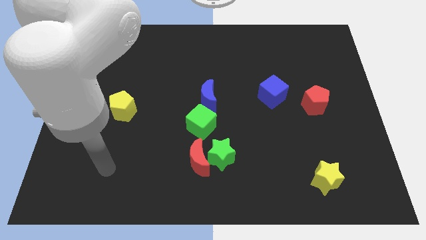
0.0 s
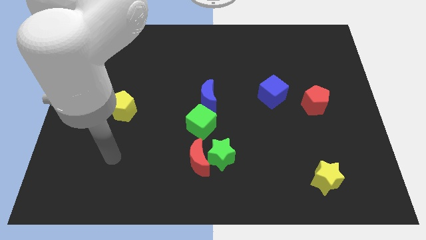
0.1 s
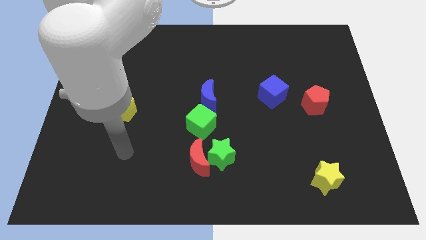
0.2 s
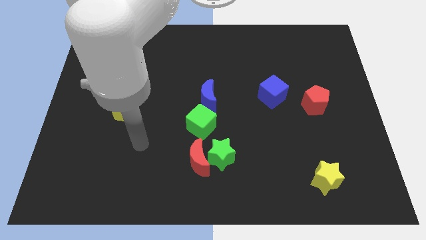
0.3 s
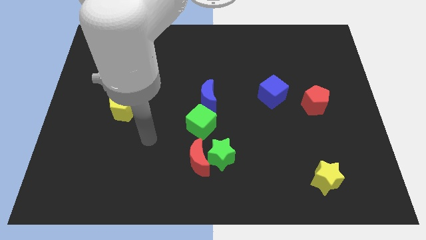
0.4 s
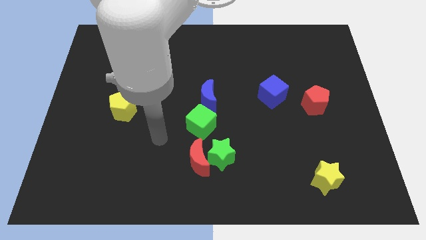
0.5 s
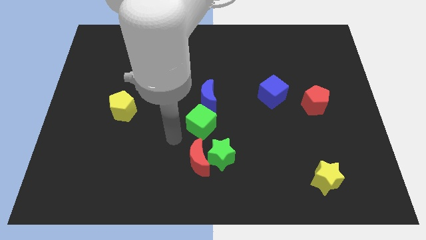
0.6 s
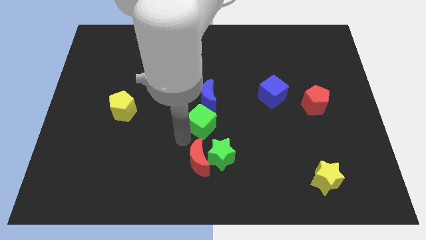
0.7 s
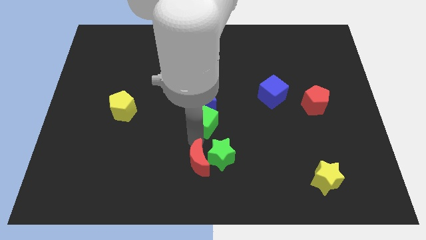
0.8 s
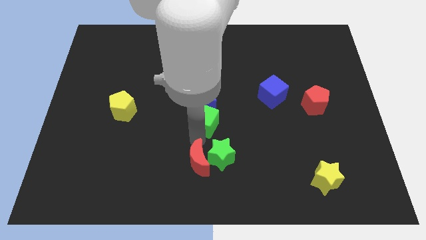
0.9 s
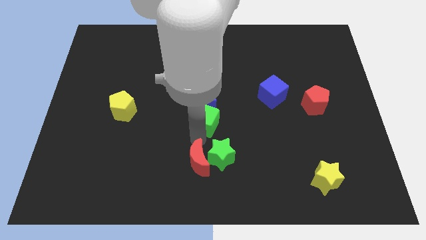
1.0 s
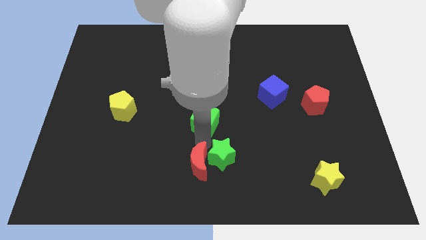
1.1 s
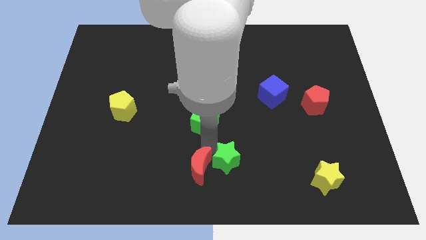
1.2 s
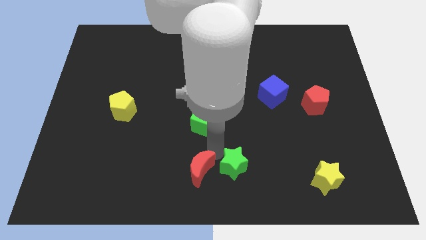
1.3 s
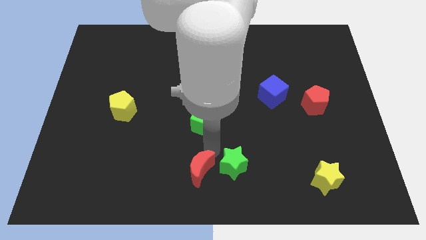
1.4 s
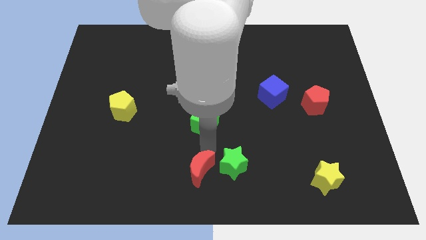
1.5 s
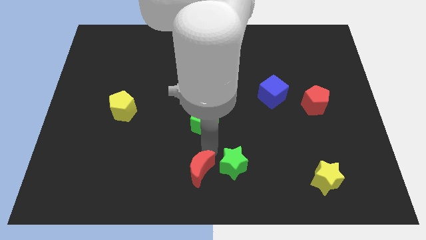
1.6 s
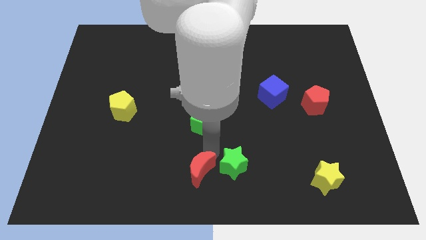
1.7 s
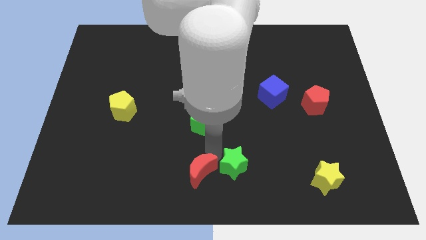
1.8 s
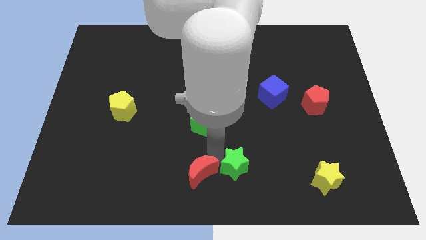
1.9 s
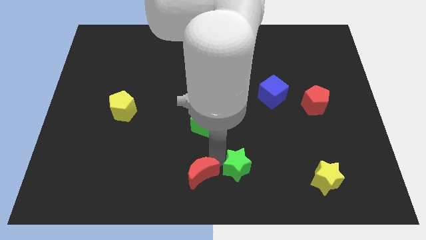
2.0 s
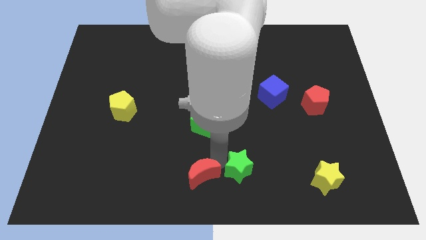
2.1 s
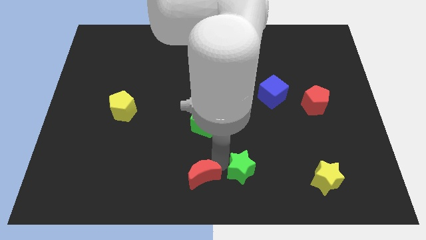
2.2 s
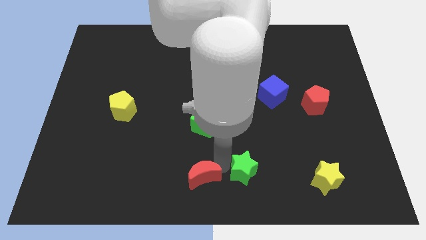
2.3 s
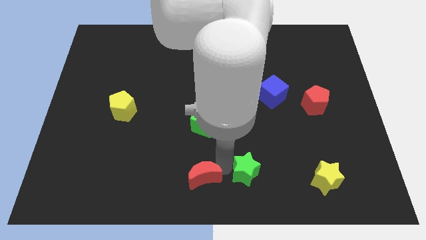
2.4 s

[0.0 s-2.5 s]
move the green star away from the red moon and green cube

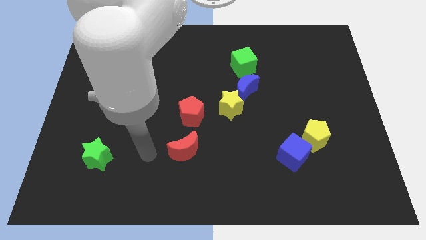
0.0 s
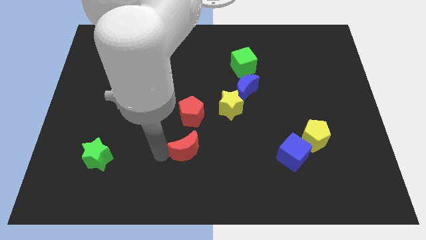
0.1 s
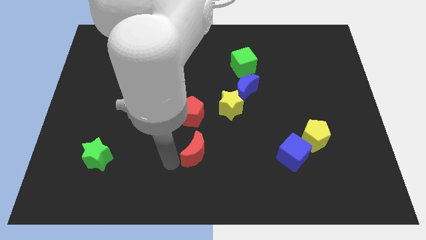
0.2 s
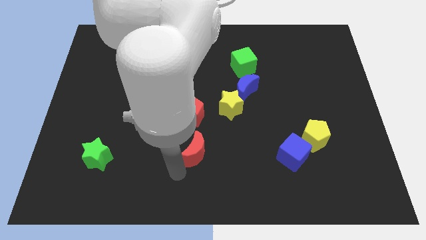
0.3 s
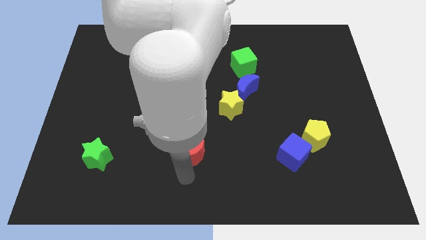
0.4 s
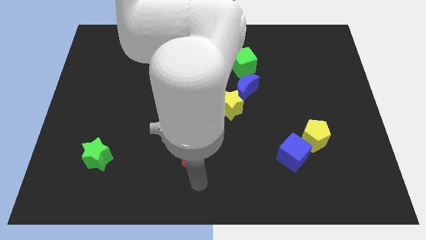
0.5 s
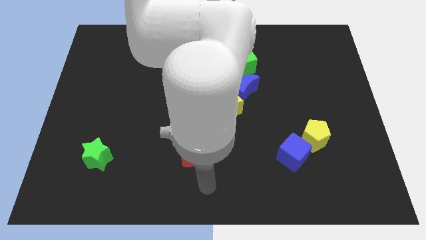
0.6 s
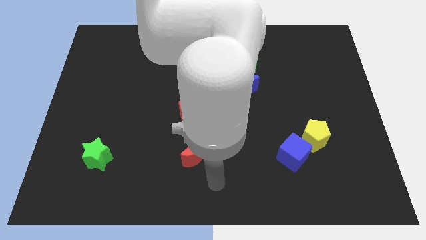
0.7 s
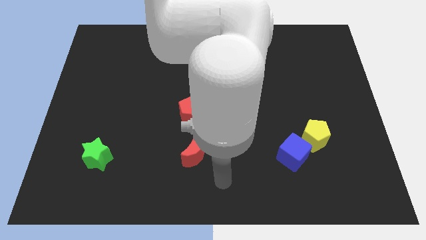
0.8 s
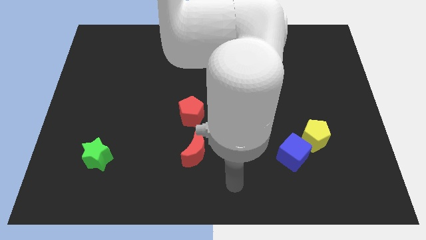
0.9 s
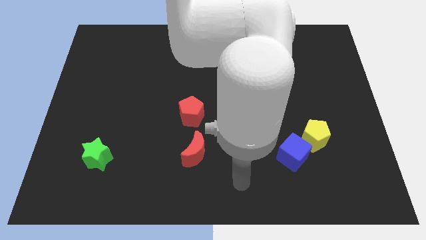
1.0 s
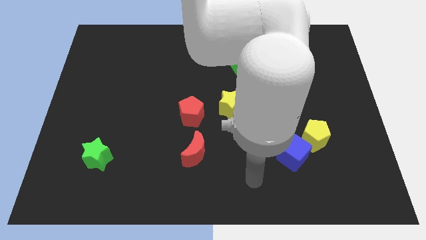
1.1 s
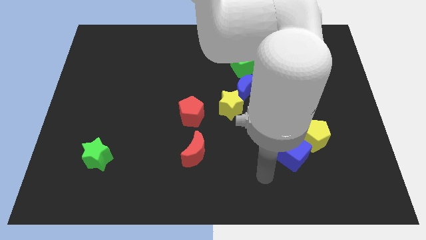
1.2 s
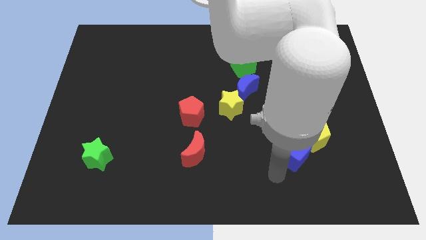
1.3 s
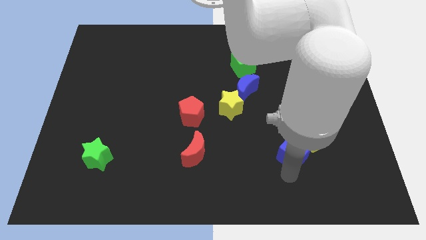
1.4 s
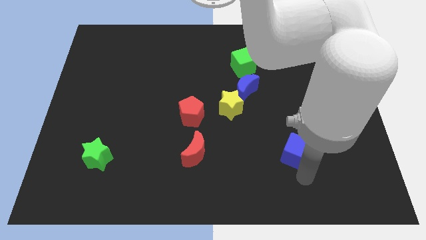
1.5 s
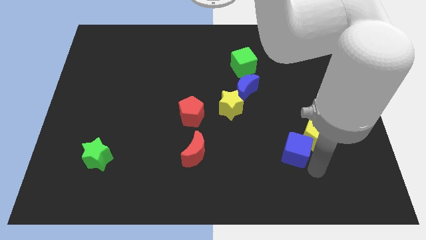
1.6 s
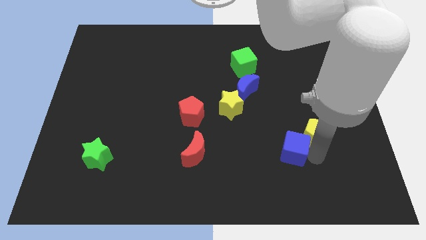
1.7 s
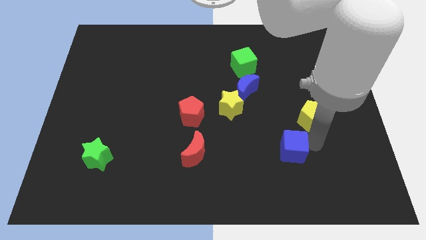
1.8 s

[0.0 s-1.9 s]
pull the blue cube apart from the yellow pentagon

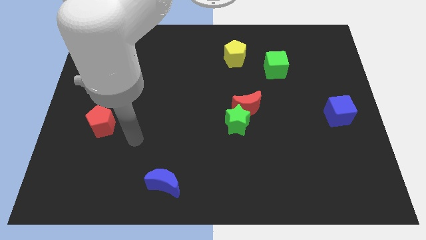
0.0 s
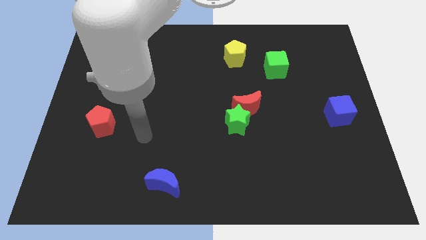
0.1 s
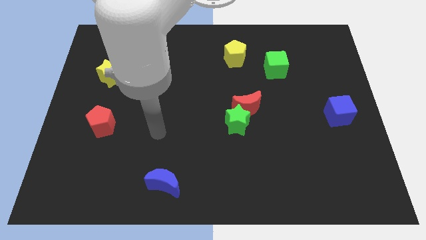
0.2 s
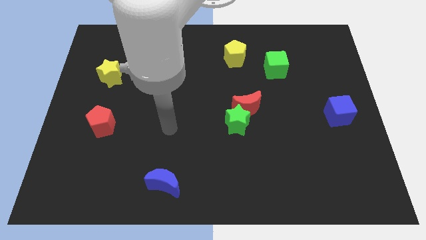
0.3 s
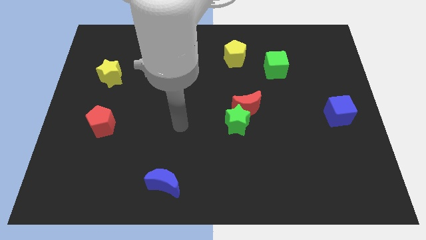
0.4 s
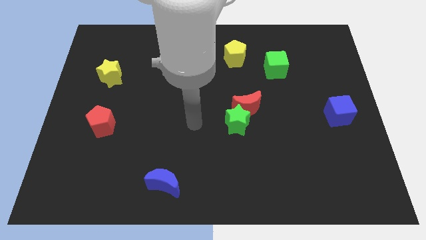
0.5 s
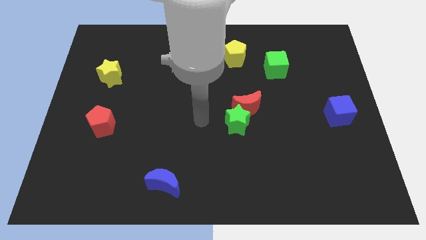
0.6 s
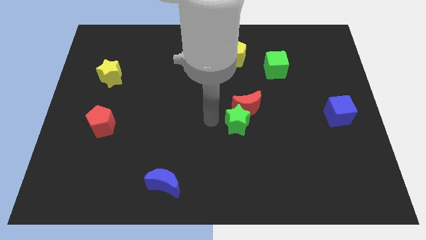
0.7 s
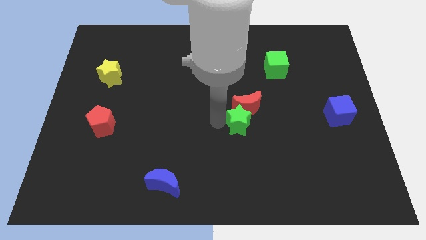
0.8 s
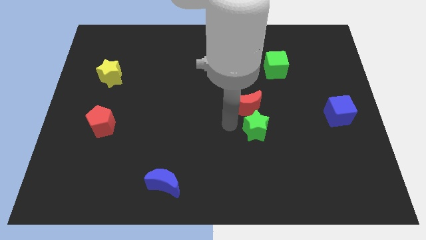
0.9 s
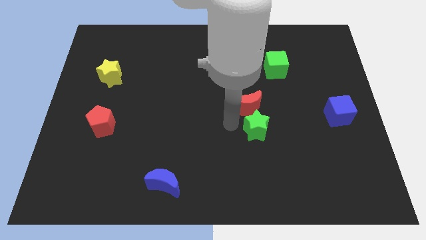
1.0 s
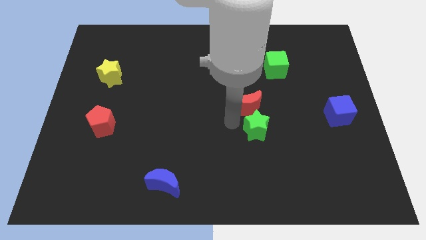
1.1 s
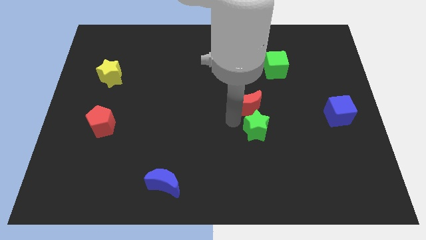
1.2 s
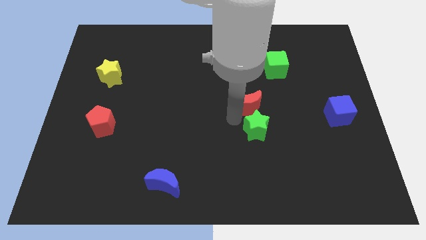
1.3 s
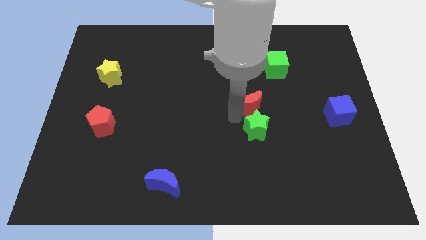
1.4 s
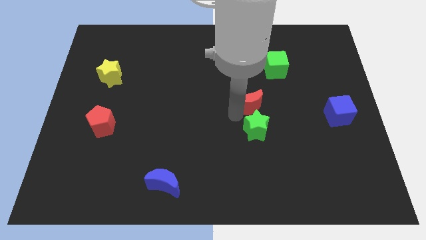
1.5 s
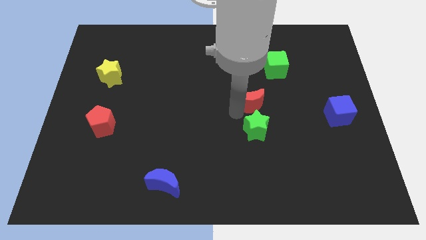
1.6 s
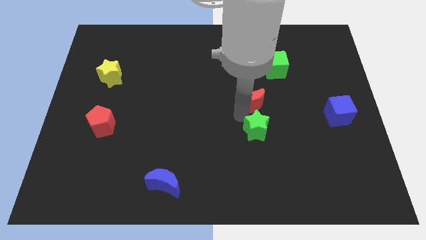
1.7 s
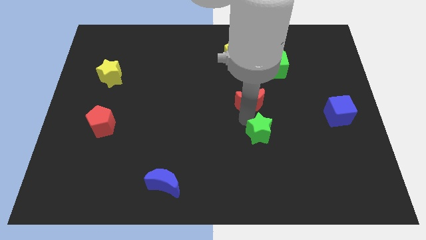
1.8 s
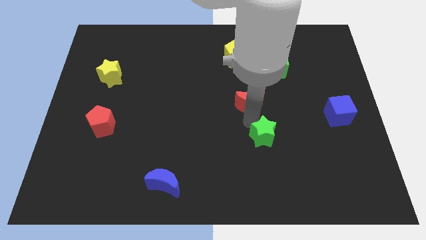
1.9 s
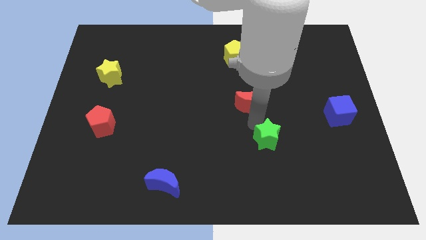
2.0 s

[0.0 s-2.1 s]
separate the red moon from the green star

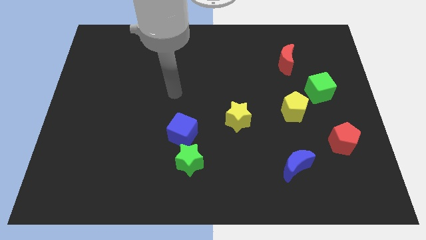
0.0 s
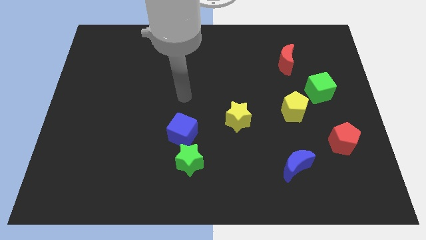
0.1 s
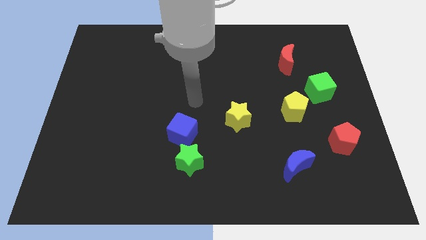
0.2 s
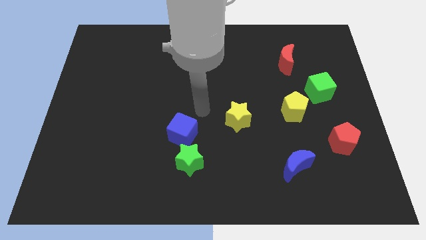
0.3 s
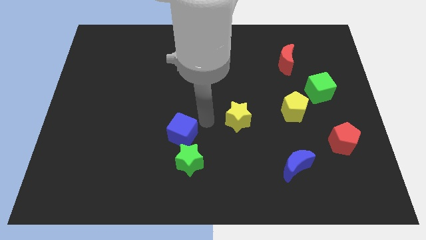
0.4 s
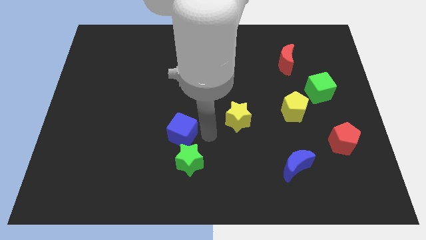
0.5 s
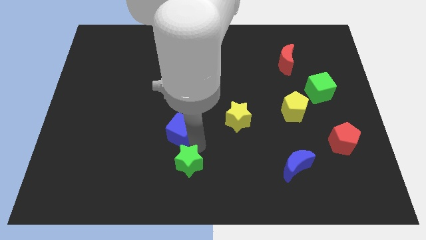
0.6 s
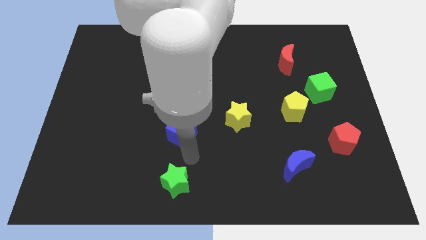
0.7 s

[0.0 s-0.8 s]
pull the blue cube apart from the green star

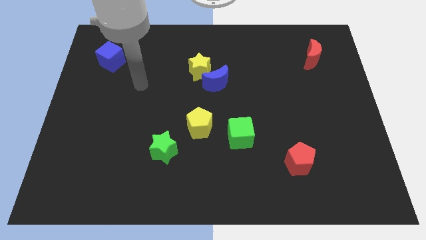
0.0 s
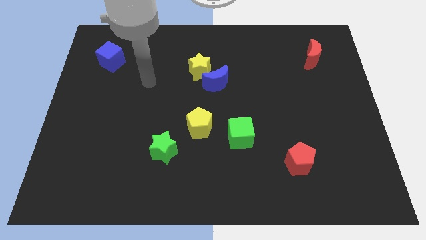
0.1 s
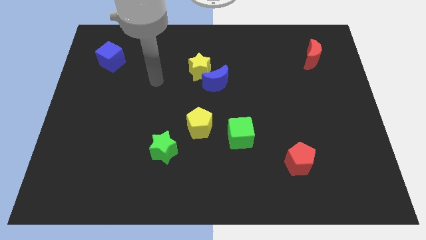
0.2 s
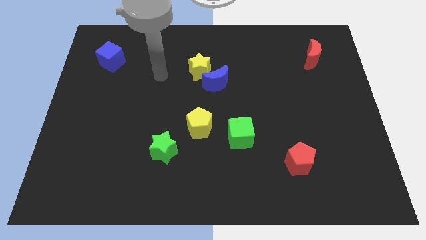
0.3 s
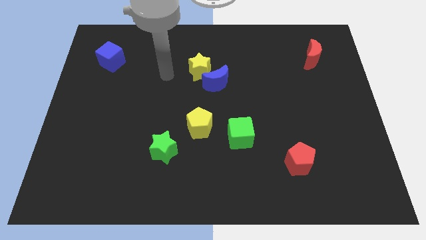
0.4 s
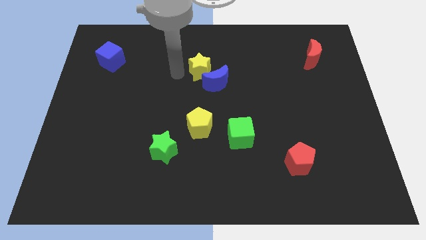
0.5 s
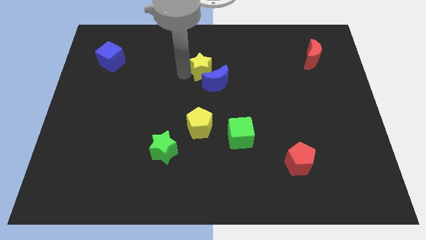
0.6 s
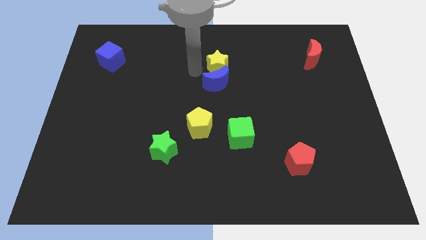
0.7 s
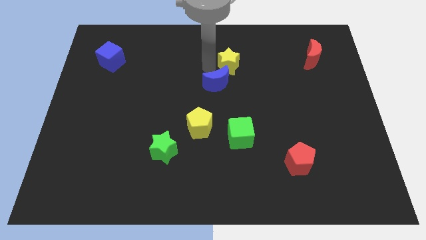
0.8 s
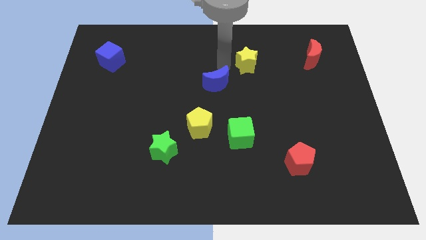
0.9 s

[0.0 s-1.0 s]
pull the blue moon apart from the yellow star

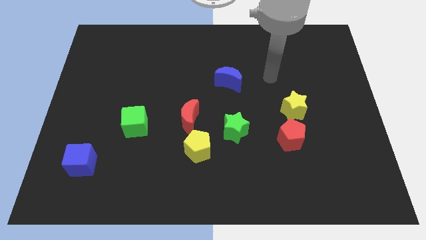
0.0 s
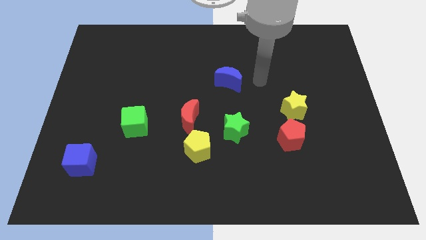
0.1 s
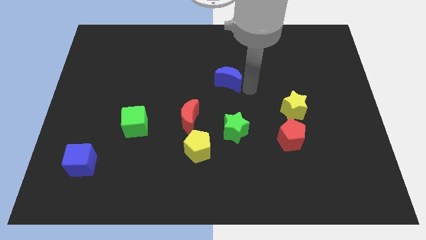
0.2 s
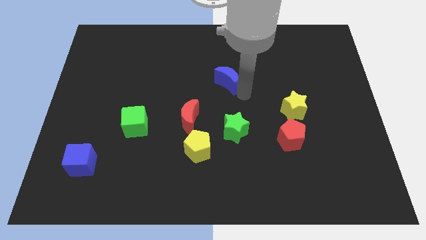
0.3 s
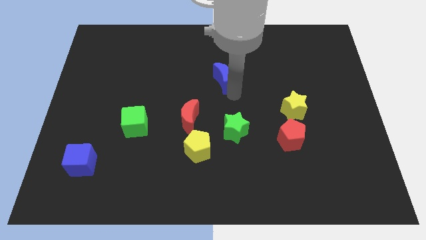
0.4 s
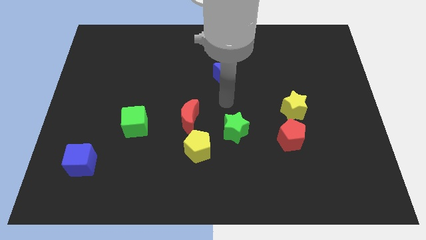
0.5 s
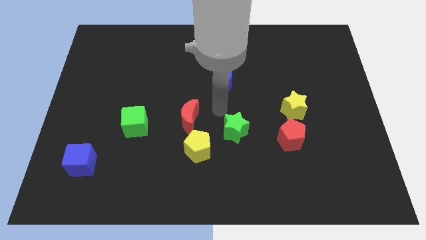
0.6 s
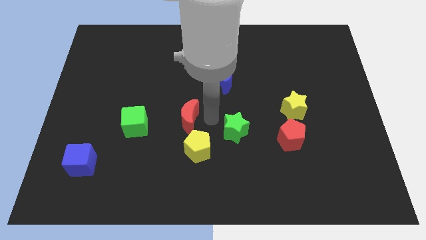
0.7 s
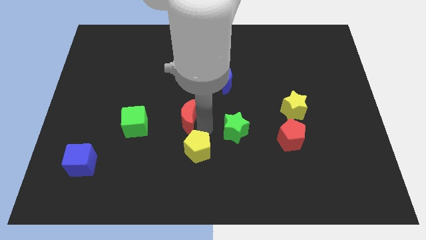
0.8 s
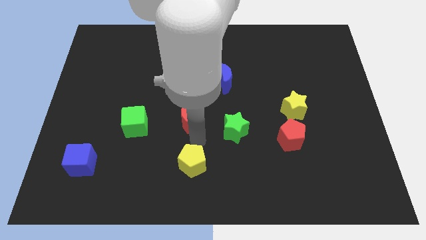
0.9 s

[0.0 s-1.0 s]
separate the red moon from the yellow pentagon
